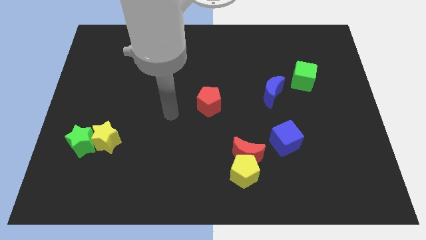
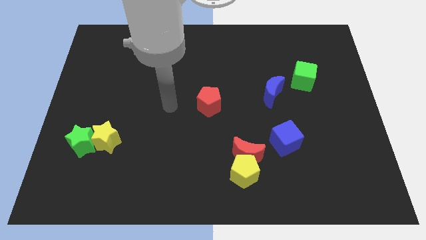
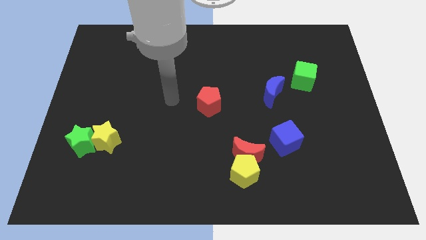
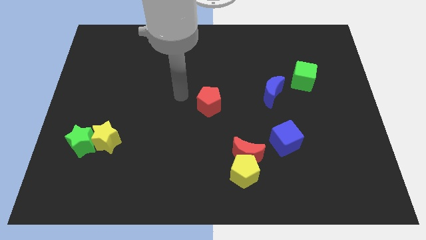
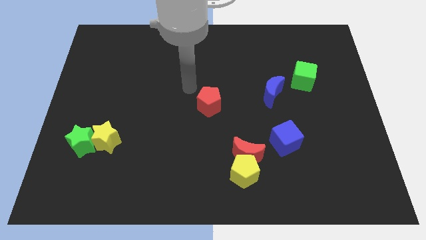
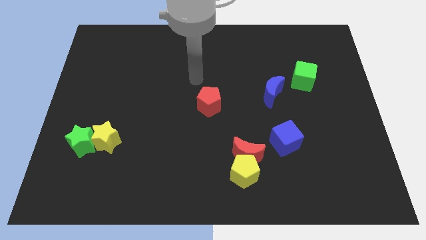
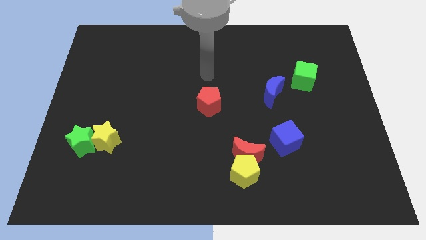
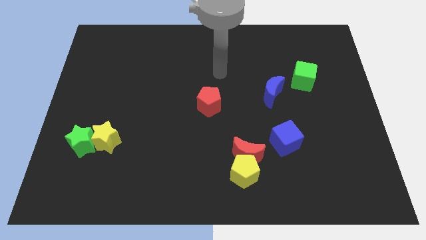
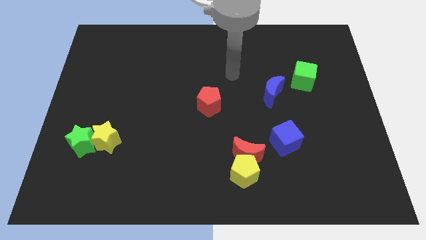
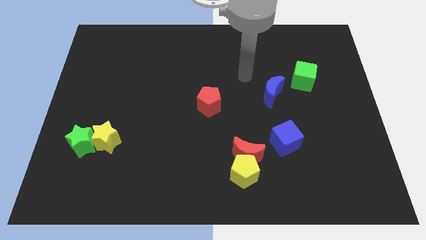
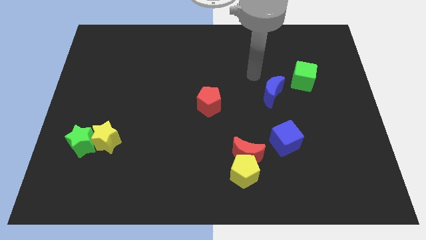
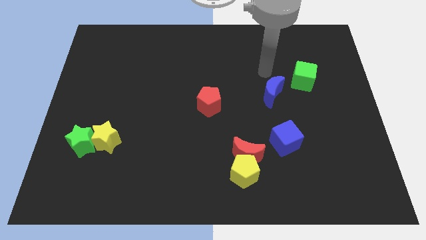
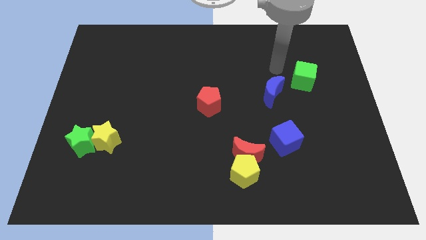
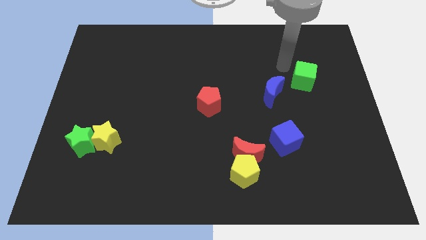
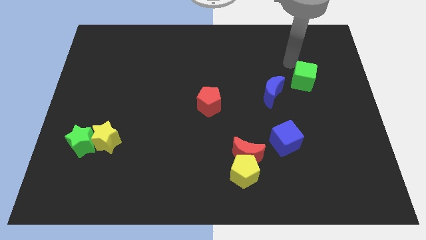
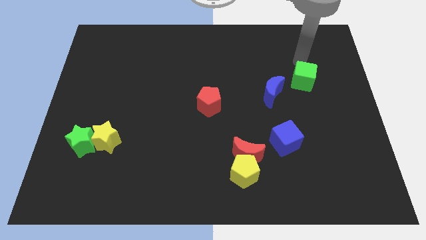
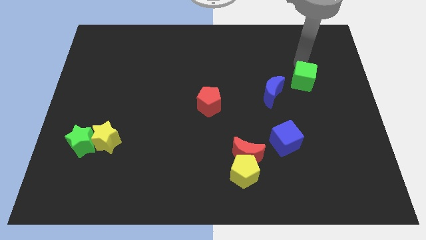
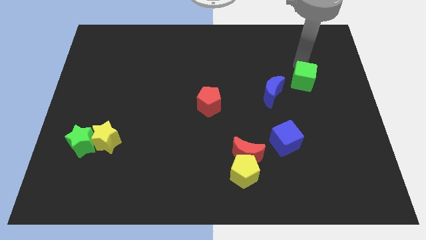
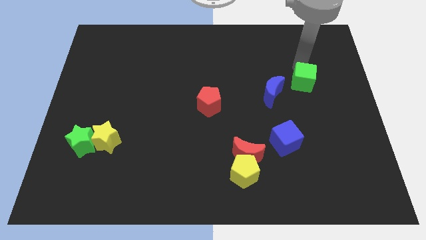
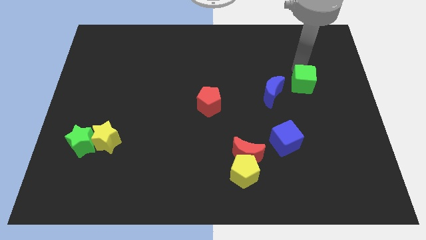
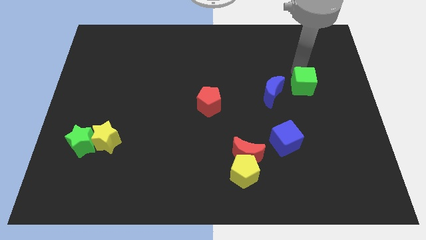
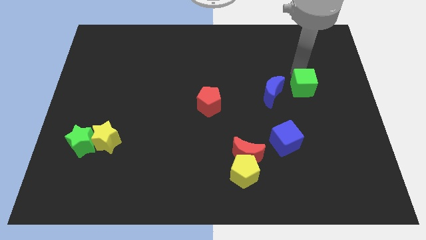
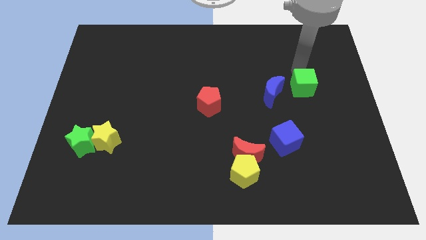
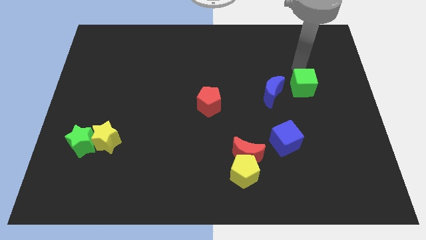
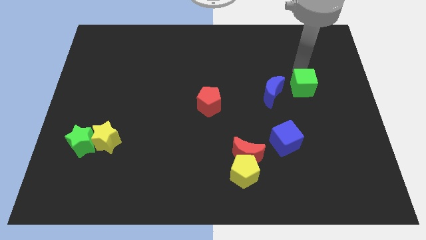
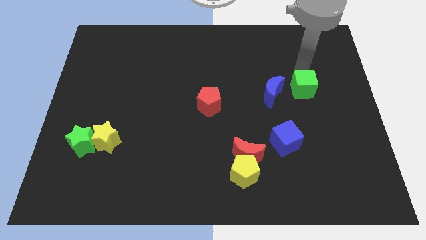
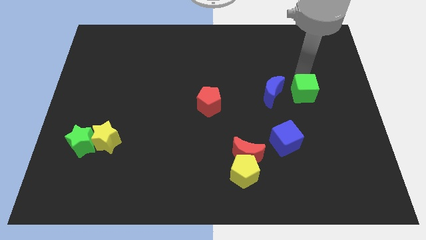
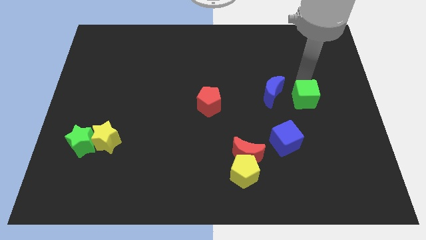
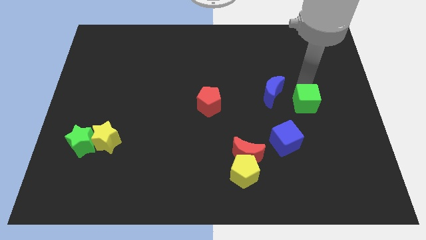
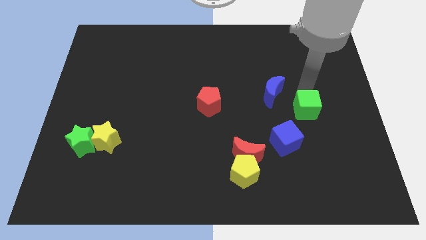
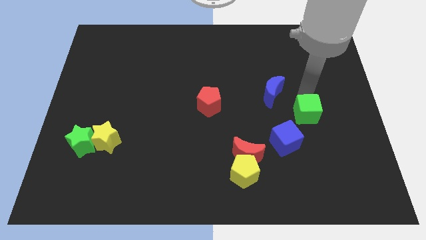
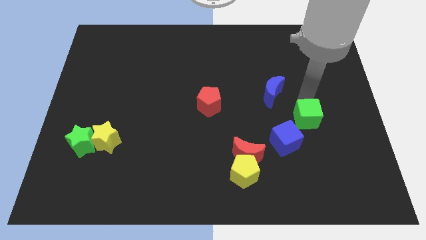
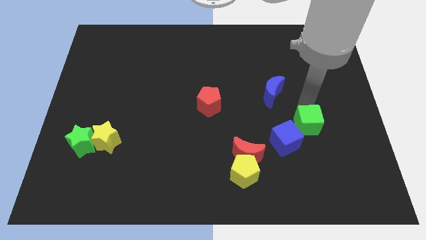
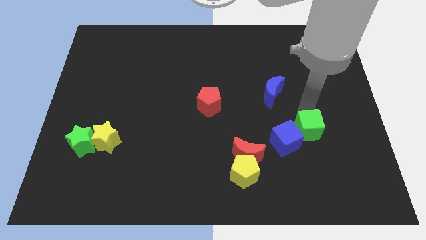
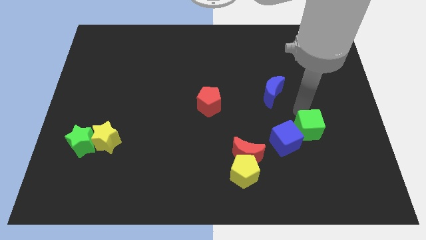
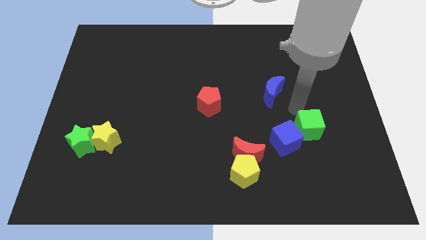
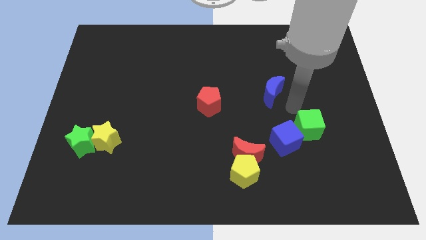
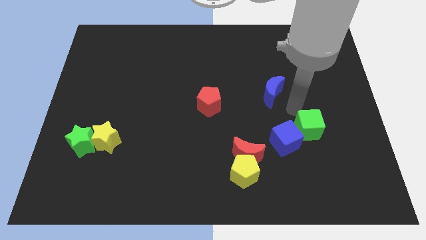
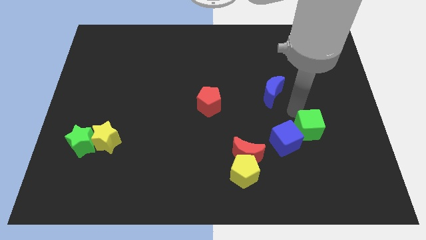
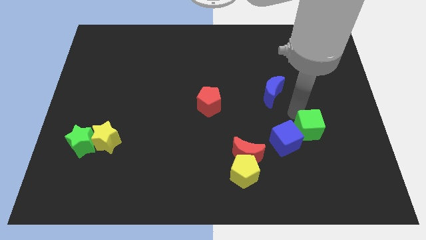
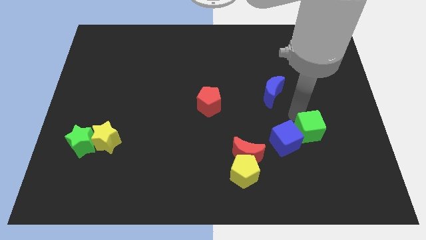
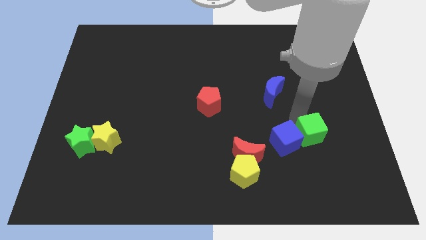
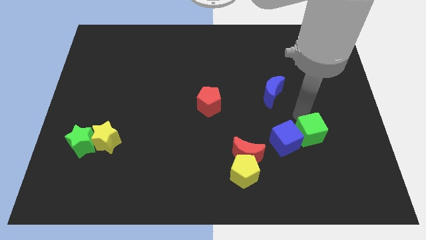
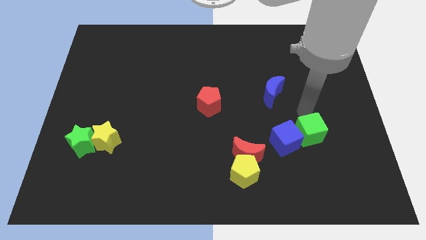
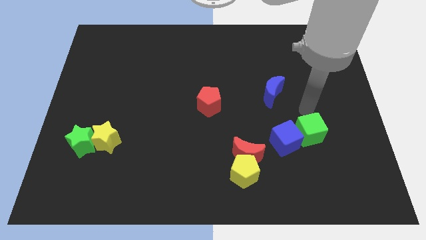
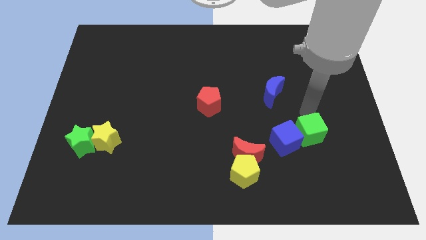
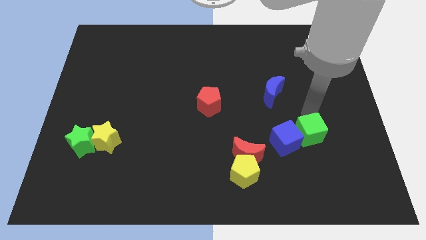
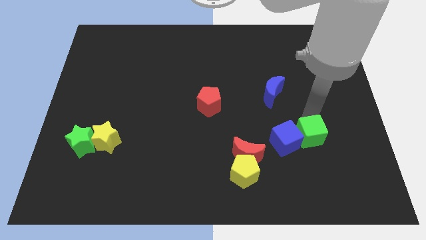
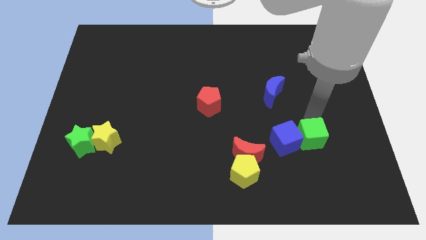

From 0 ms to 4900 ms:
put the green cube to the bottom right side of the blue cube

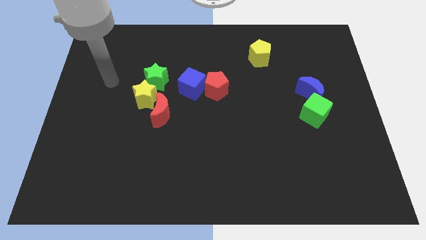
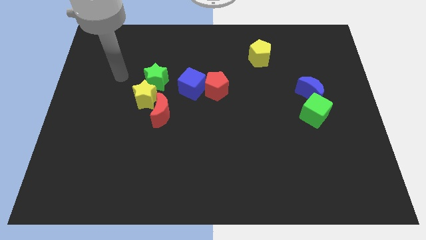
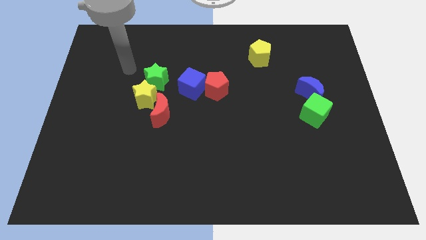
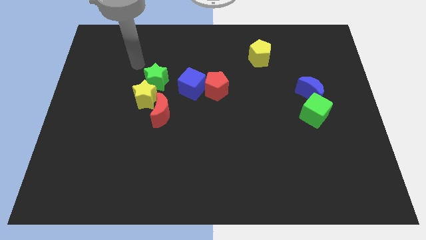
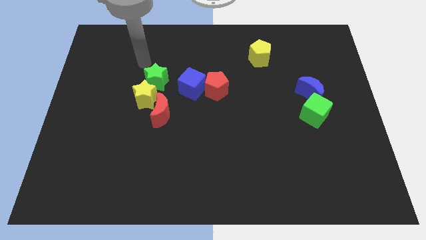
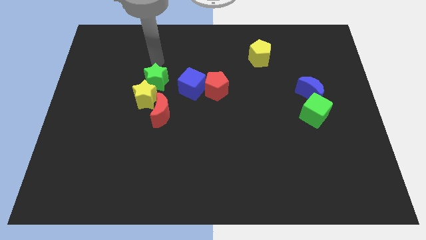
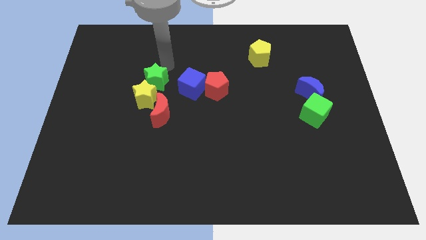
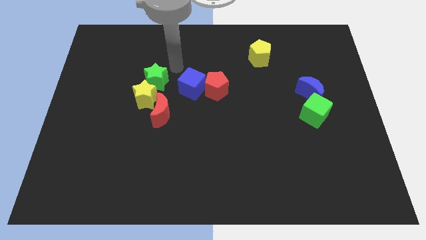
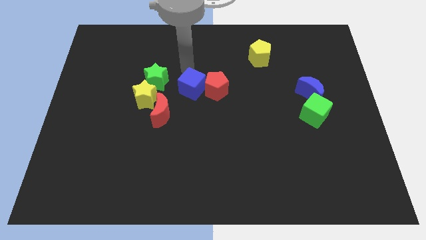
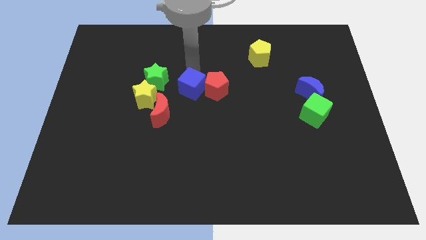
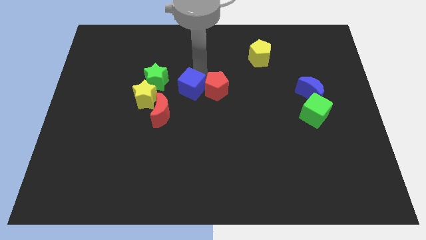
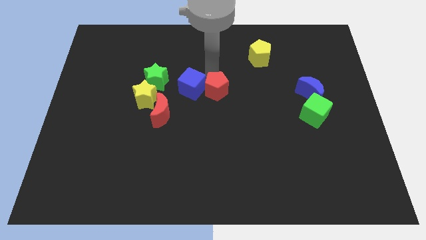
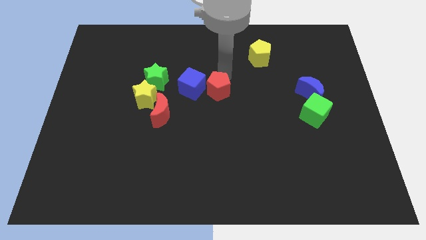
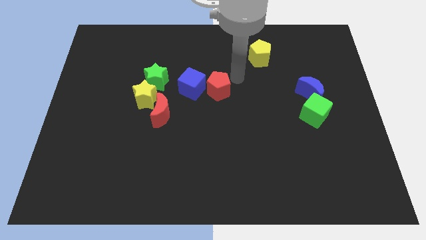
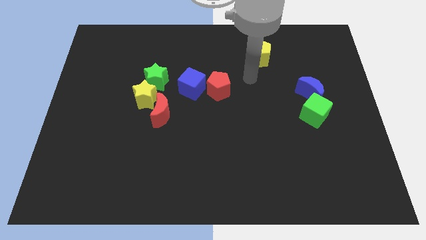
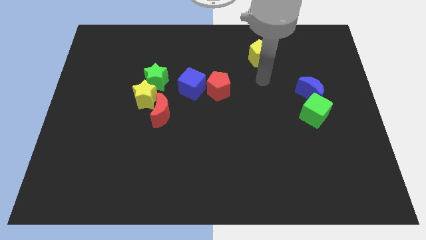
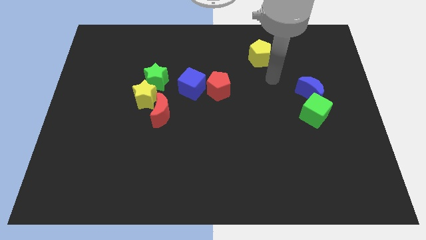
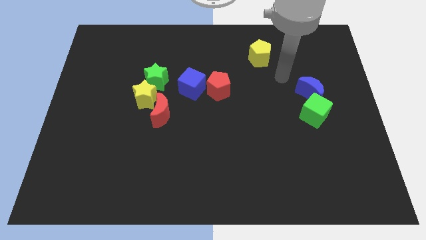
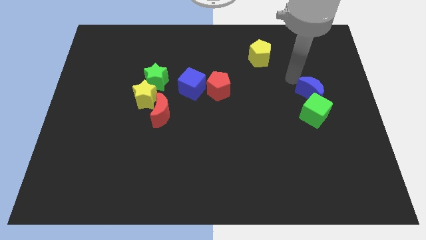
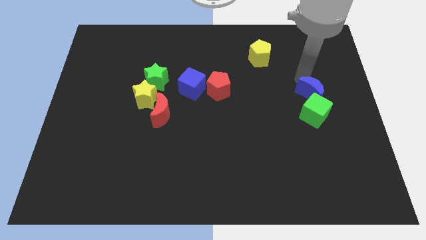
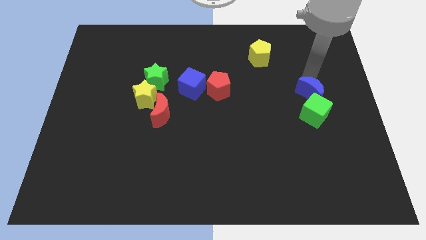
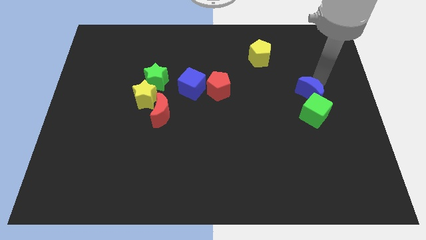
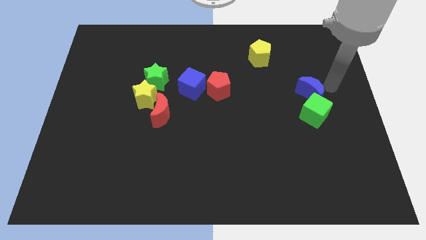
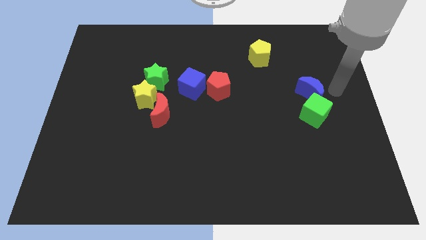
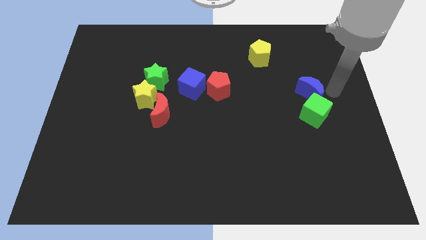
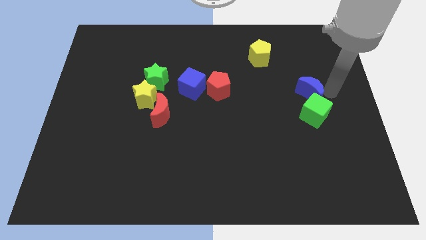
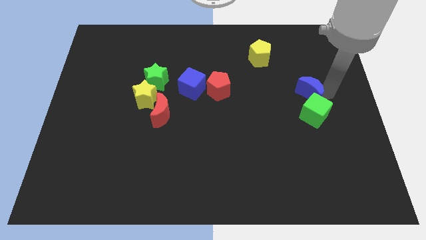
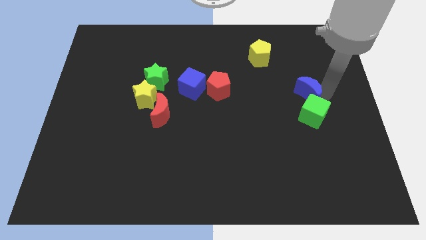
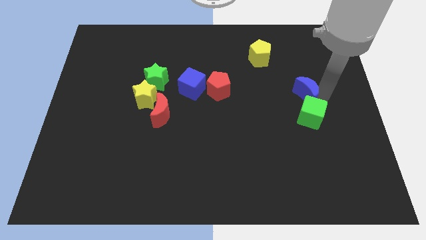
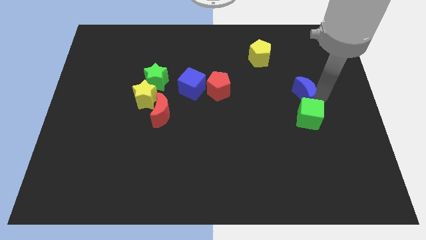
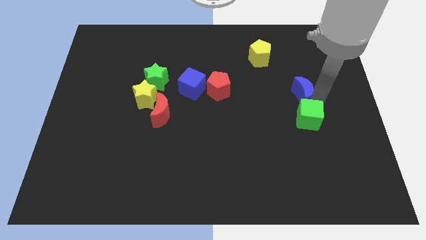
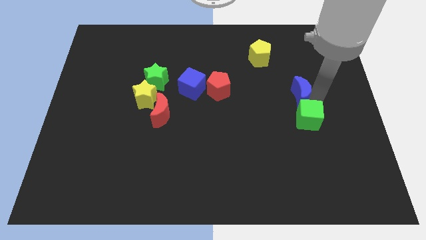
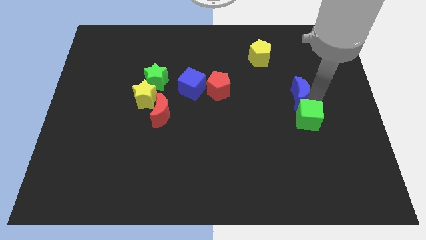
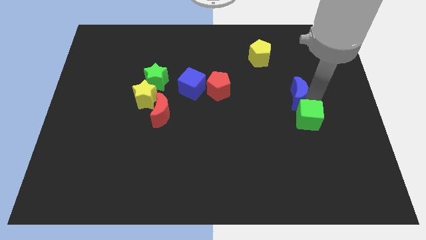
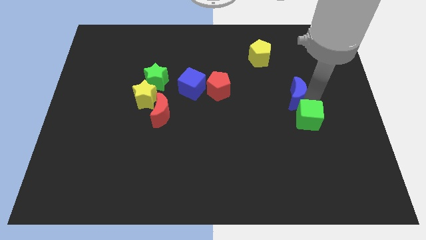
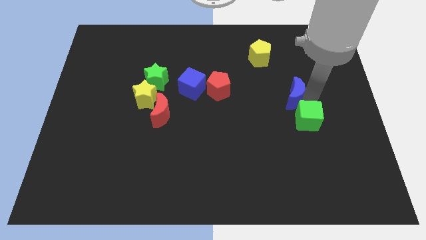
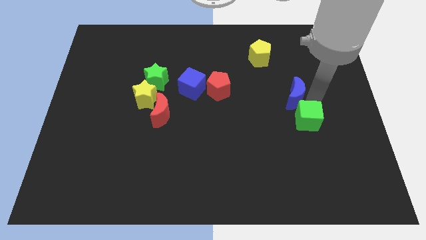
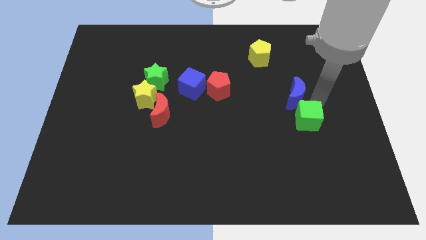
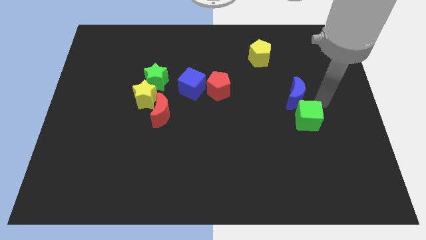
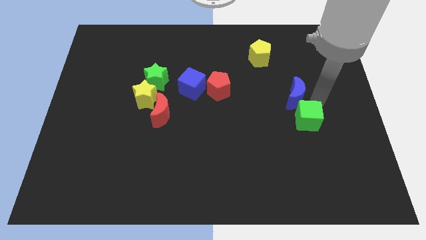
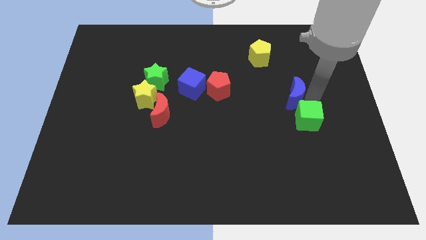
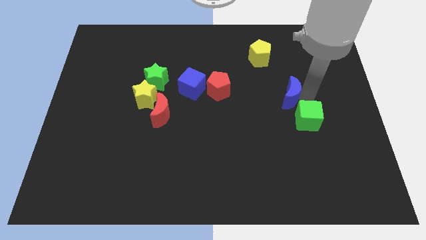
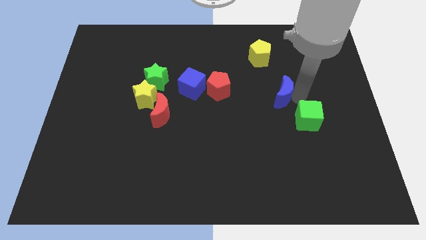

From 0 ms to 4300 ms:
slide the blue moon to the right side of the red pentagon
